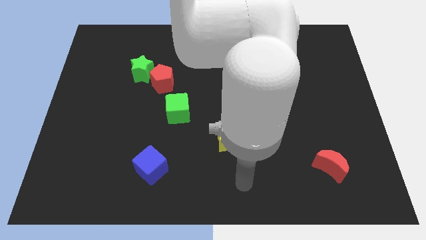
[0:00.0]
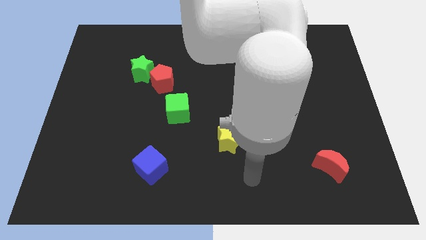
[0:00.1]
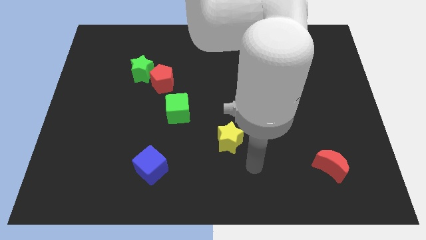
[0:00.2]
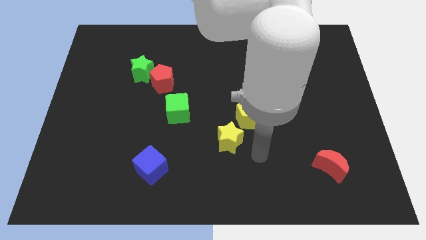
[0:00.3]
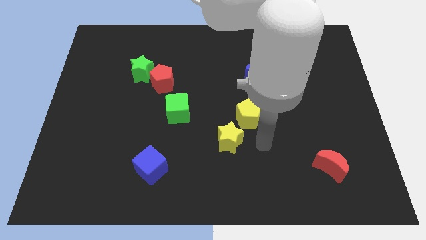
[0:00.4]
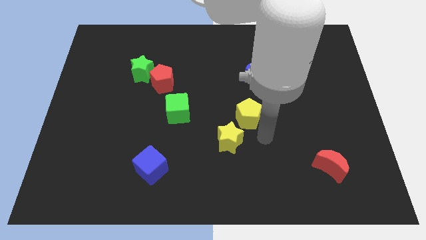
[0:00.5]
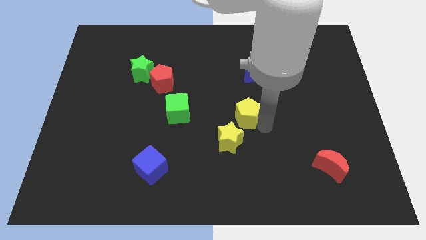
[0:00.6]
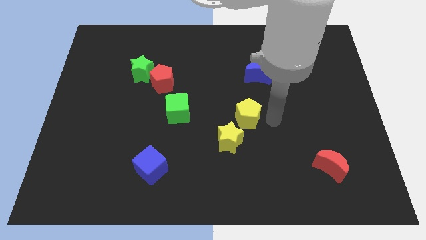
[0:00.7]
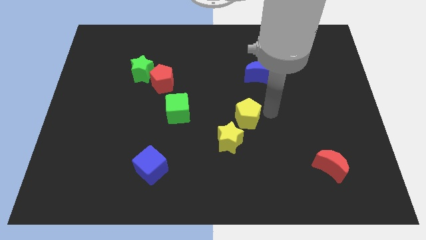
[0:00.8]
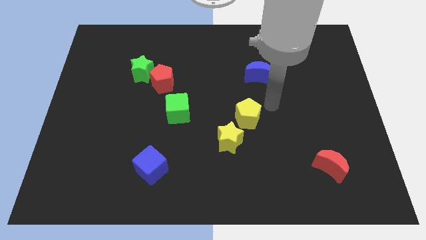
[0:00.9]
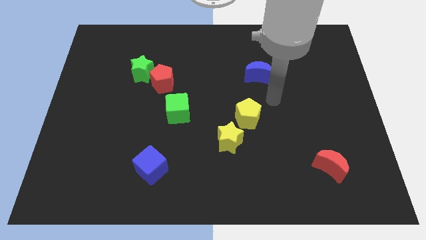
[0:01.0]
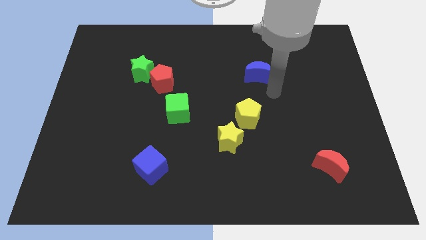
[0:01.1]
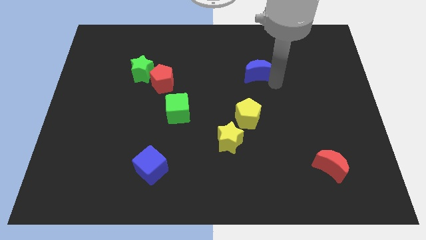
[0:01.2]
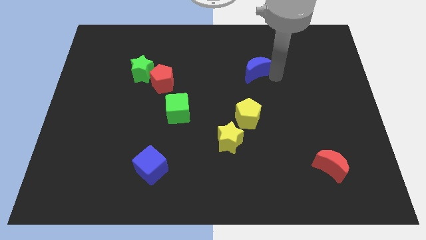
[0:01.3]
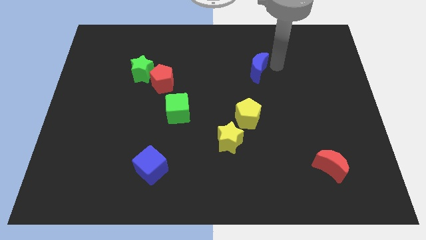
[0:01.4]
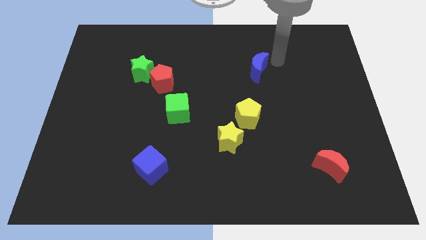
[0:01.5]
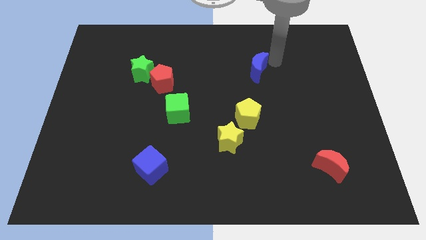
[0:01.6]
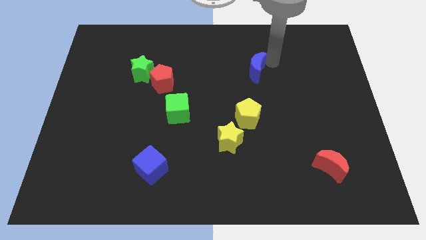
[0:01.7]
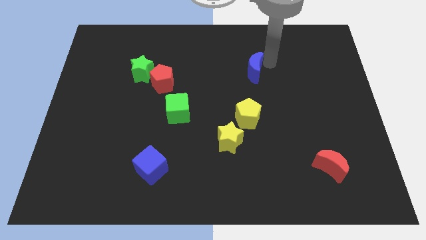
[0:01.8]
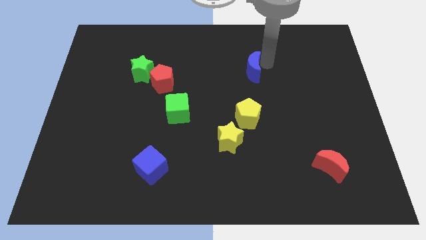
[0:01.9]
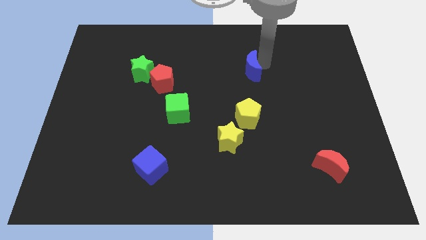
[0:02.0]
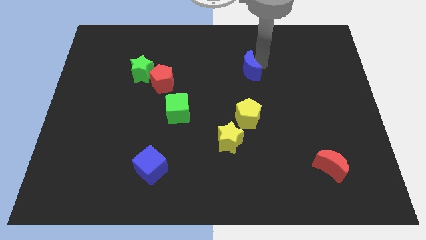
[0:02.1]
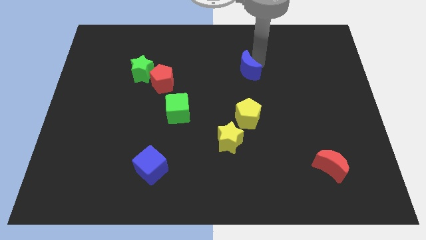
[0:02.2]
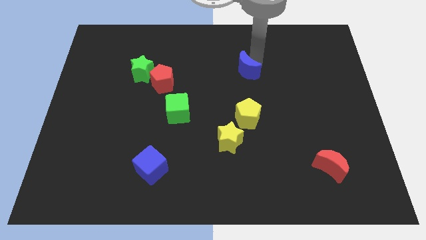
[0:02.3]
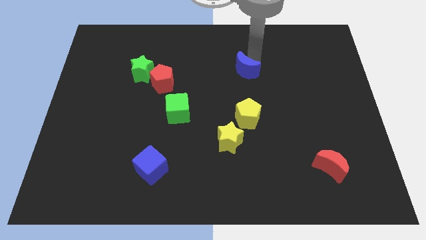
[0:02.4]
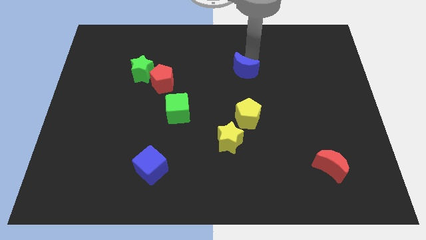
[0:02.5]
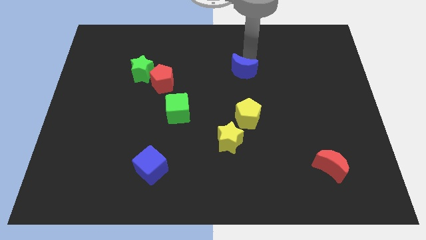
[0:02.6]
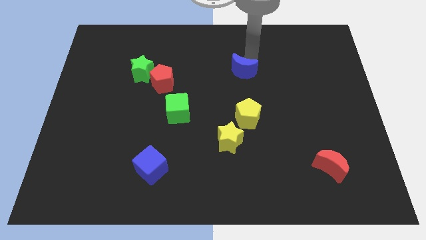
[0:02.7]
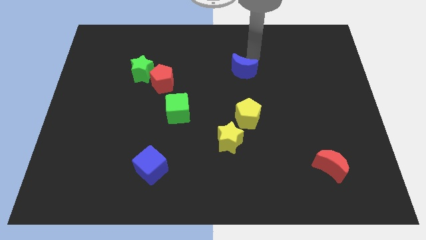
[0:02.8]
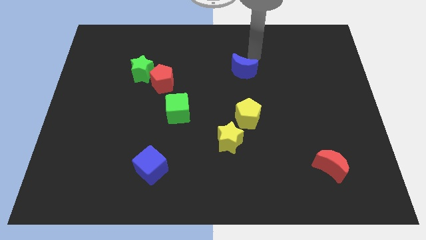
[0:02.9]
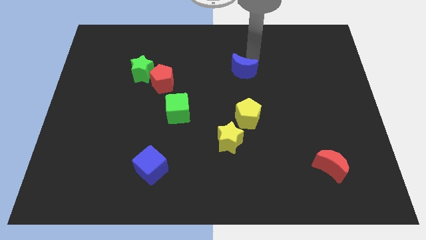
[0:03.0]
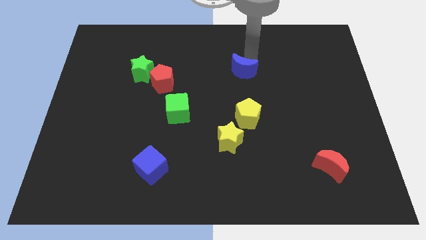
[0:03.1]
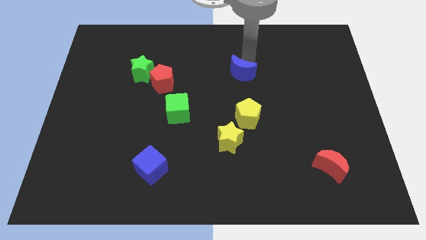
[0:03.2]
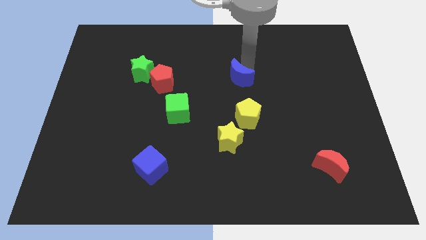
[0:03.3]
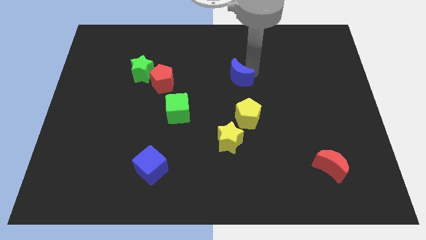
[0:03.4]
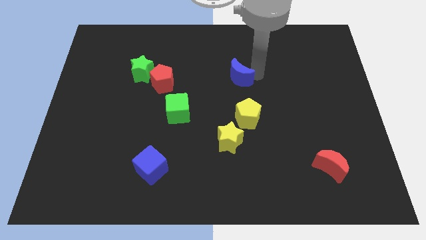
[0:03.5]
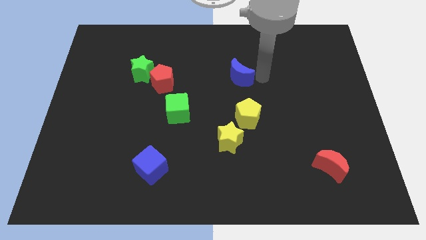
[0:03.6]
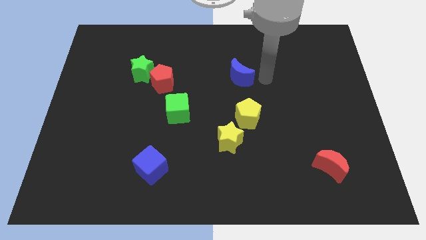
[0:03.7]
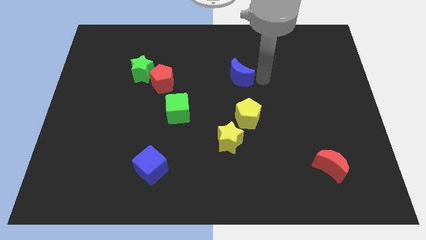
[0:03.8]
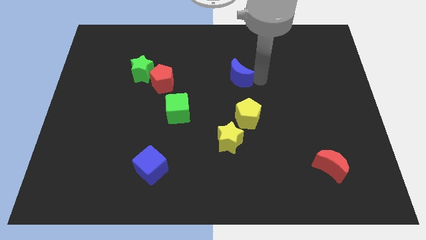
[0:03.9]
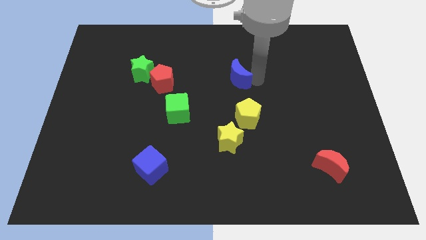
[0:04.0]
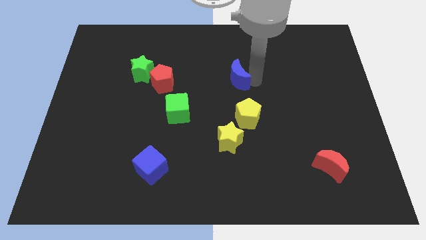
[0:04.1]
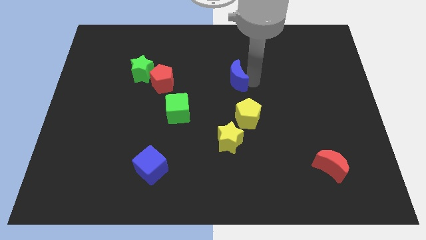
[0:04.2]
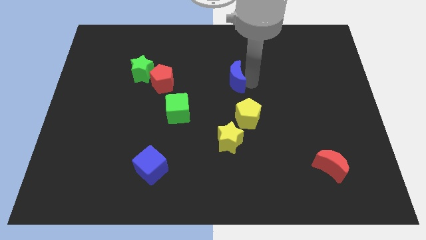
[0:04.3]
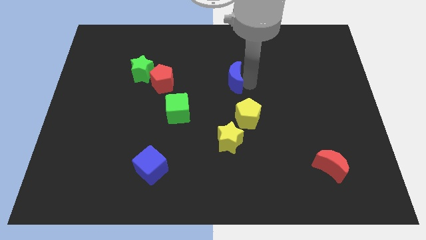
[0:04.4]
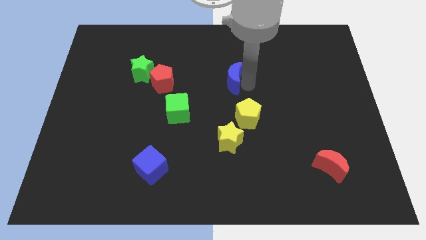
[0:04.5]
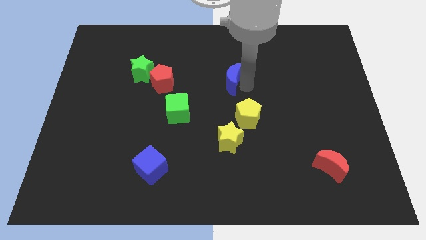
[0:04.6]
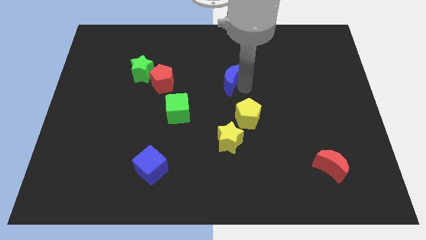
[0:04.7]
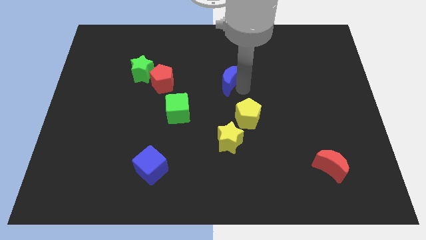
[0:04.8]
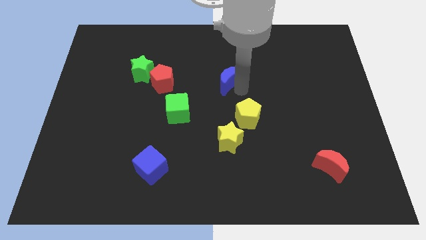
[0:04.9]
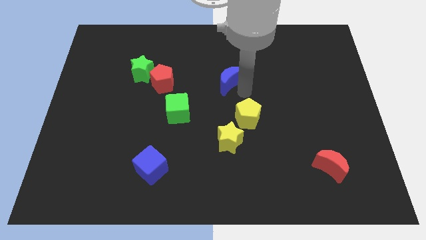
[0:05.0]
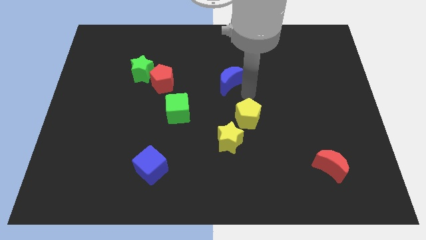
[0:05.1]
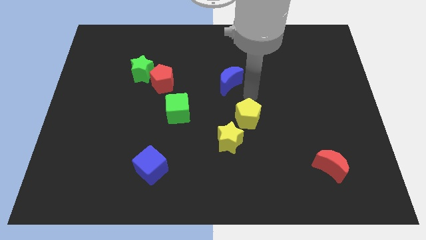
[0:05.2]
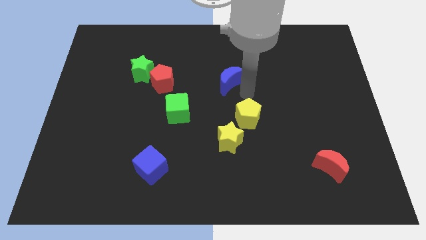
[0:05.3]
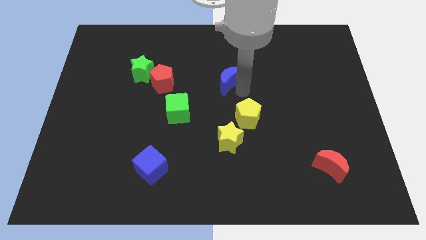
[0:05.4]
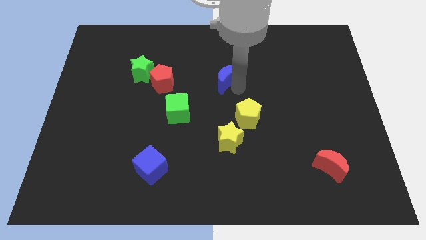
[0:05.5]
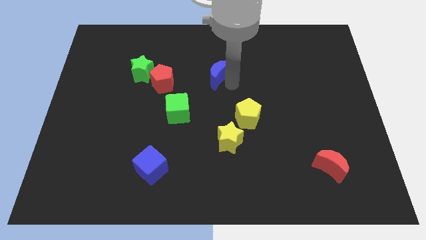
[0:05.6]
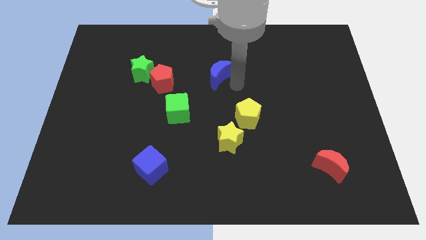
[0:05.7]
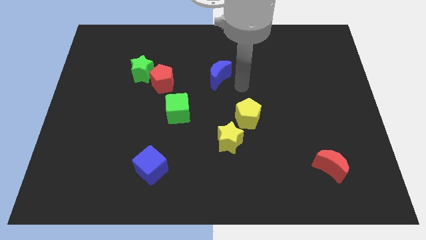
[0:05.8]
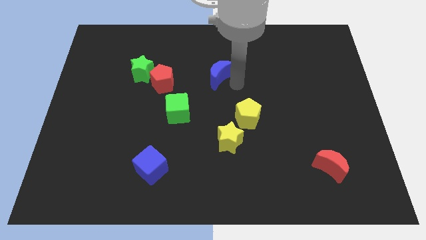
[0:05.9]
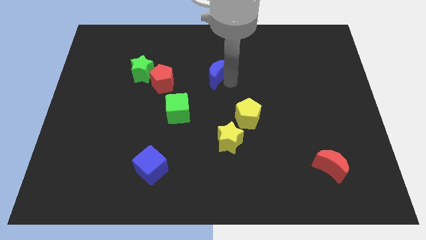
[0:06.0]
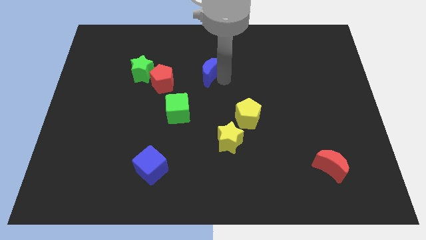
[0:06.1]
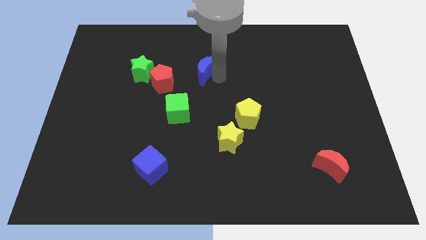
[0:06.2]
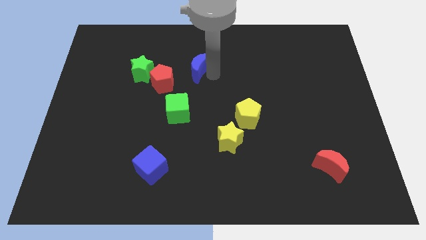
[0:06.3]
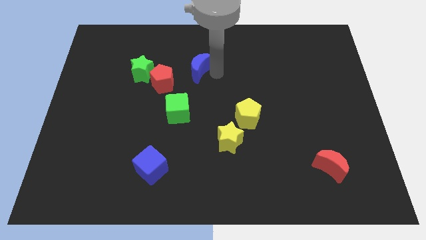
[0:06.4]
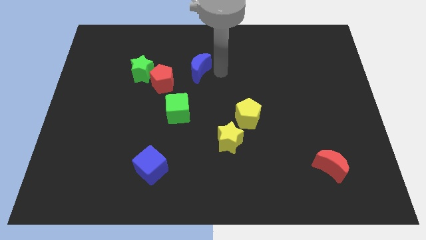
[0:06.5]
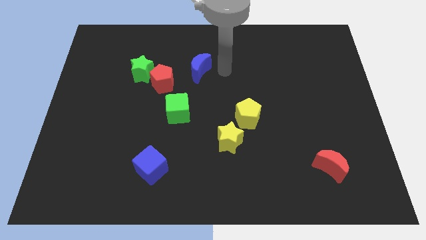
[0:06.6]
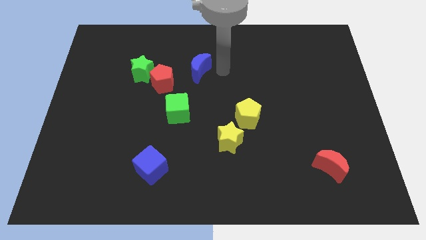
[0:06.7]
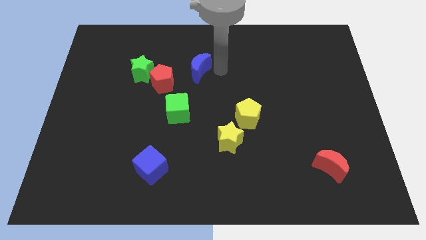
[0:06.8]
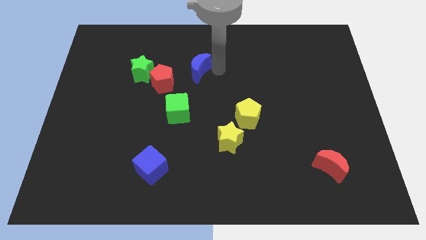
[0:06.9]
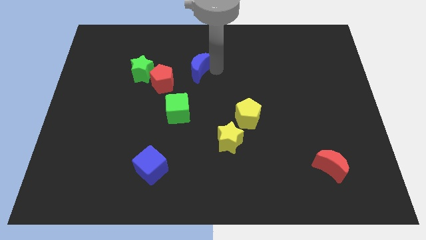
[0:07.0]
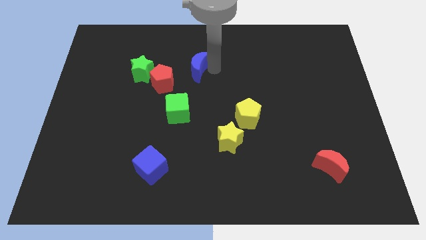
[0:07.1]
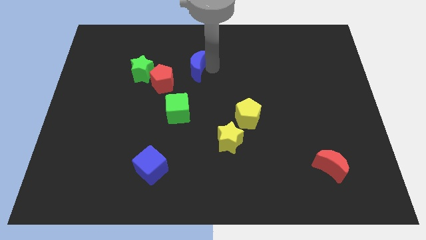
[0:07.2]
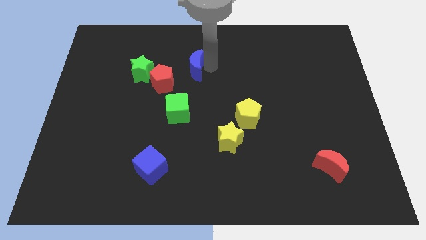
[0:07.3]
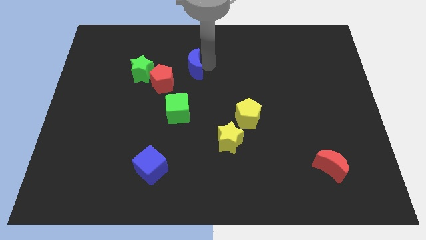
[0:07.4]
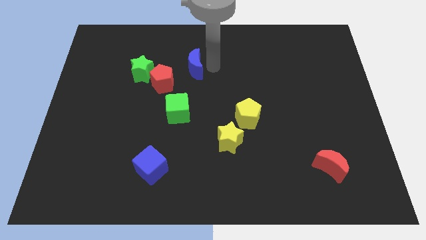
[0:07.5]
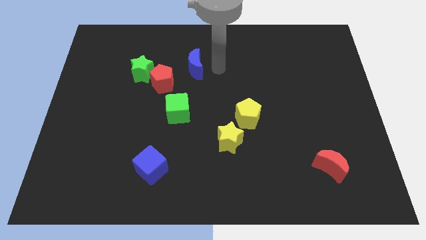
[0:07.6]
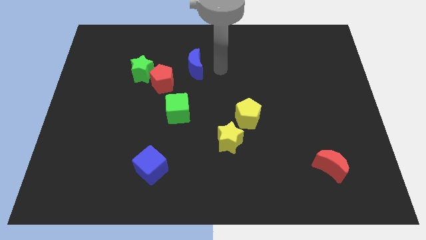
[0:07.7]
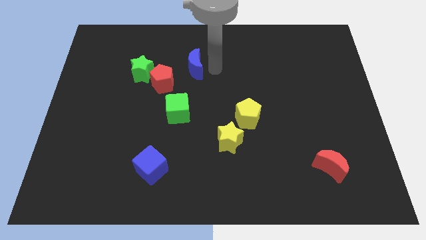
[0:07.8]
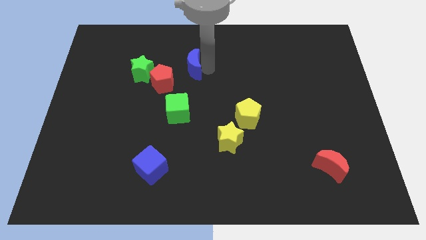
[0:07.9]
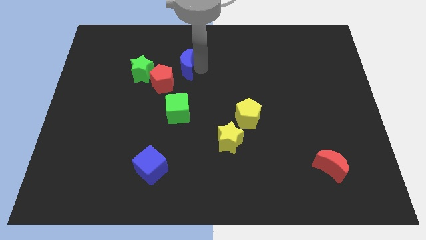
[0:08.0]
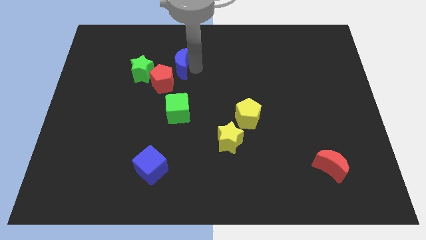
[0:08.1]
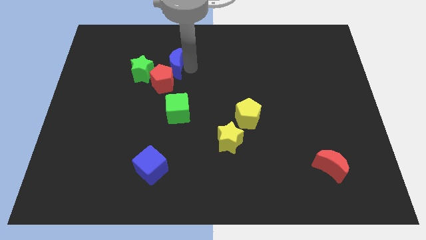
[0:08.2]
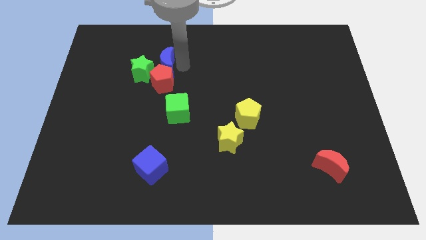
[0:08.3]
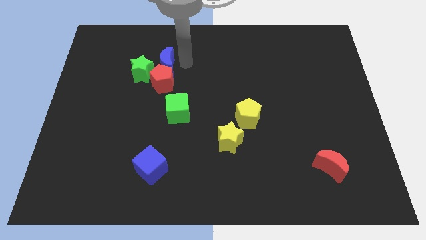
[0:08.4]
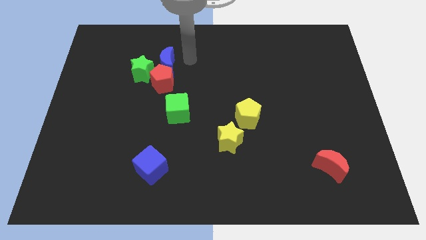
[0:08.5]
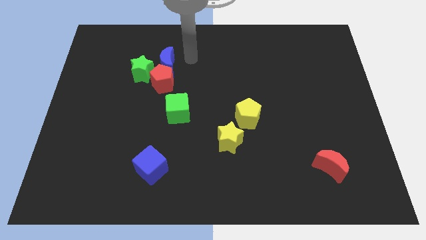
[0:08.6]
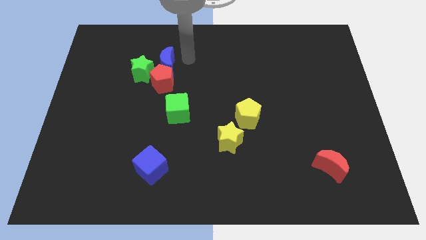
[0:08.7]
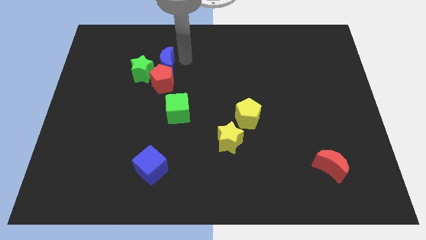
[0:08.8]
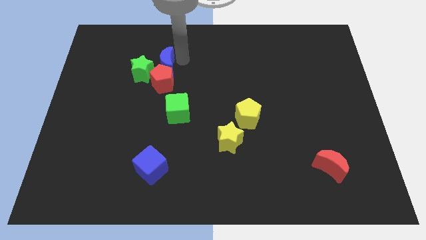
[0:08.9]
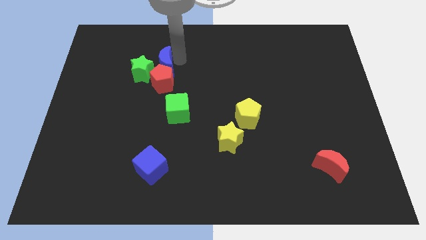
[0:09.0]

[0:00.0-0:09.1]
push the blue moon next to the green star
